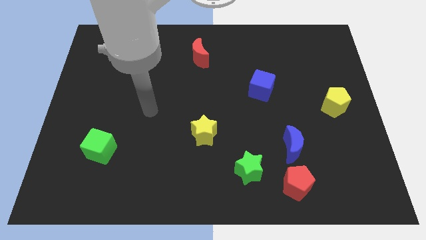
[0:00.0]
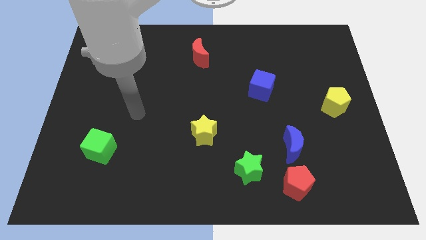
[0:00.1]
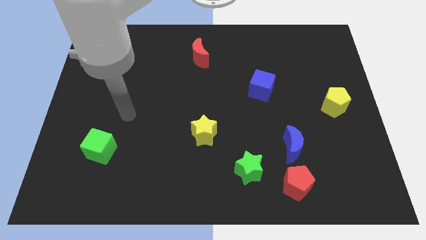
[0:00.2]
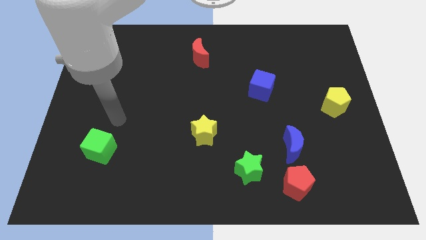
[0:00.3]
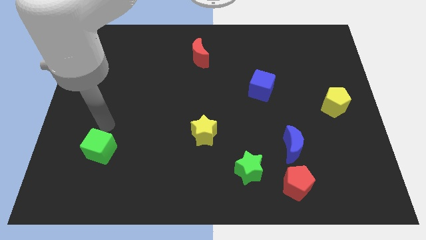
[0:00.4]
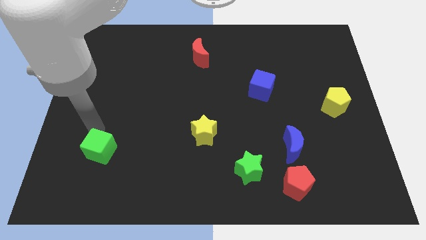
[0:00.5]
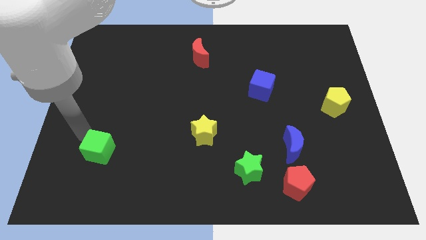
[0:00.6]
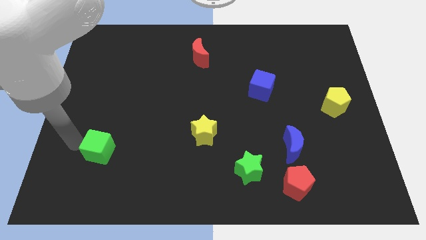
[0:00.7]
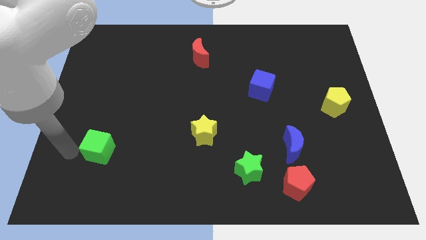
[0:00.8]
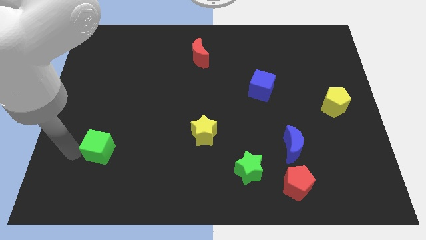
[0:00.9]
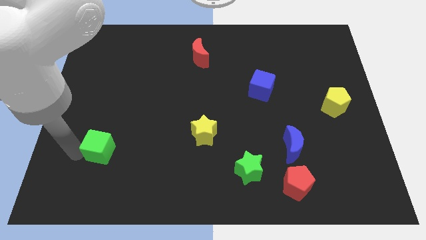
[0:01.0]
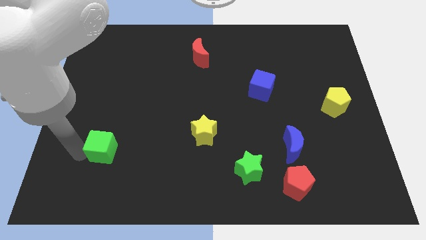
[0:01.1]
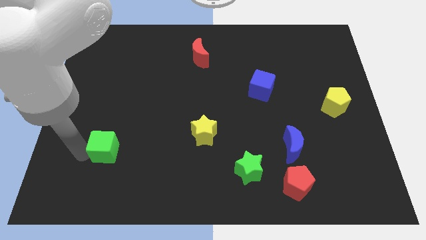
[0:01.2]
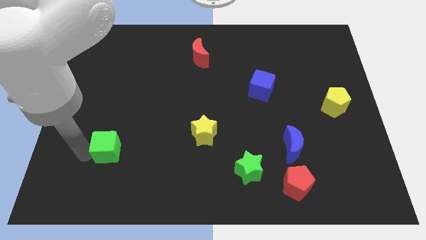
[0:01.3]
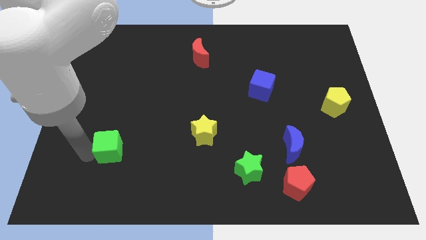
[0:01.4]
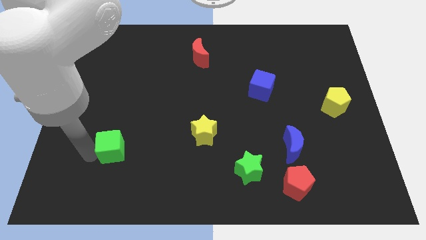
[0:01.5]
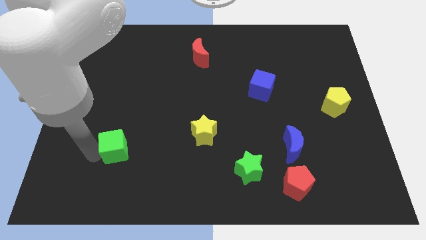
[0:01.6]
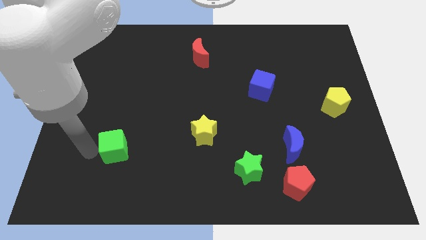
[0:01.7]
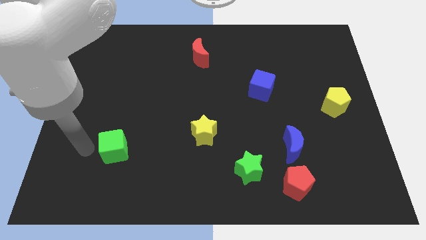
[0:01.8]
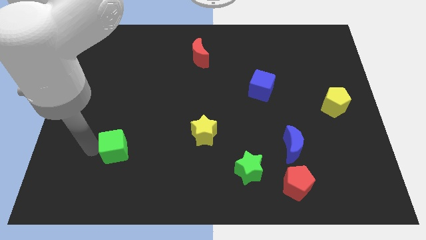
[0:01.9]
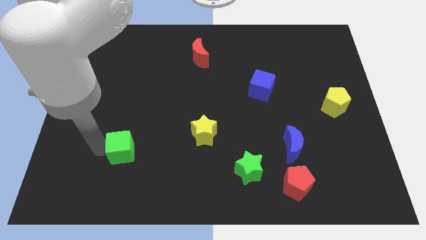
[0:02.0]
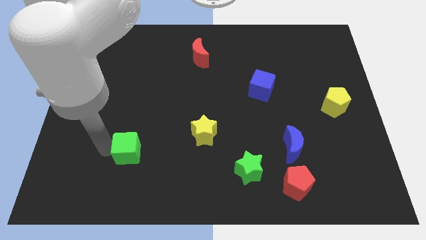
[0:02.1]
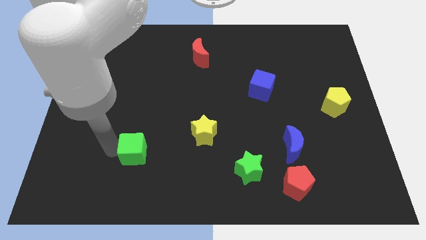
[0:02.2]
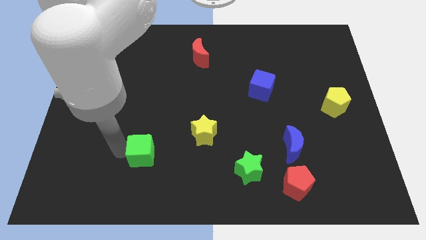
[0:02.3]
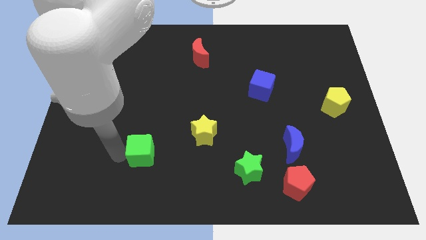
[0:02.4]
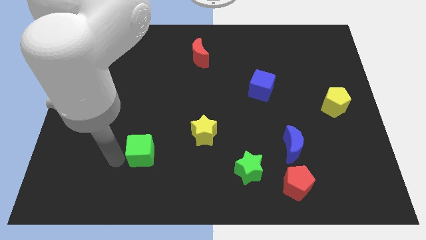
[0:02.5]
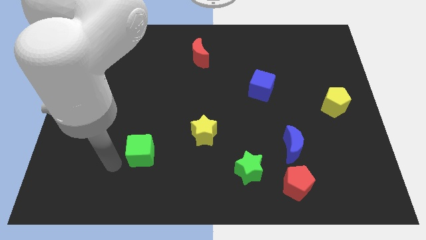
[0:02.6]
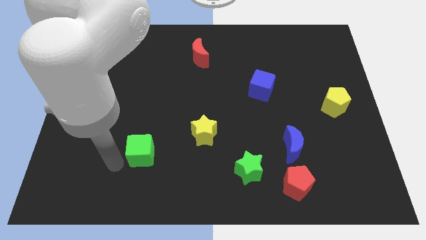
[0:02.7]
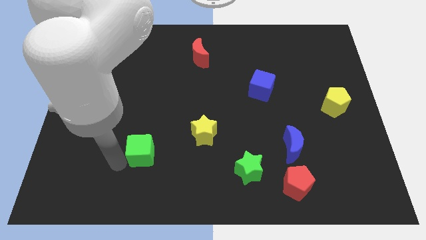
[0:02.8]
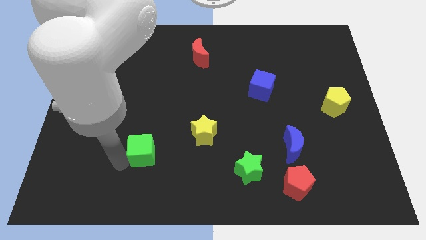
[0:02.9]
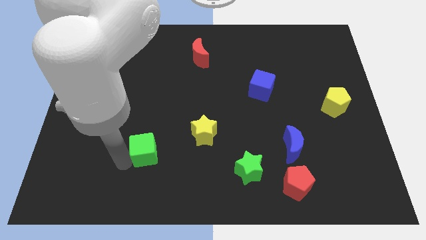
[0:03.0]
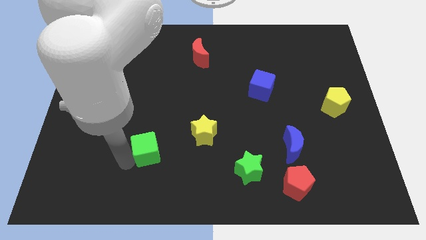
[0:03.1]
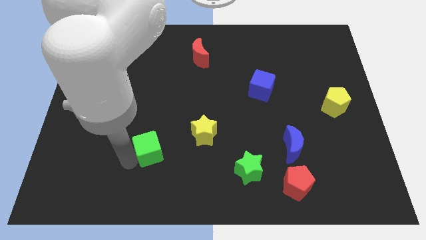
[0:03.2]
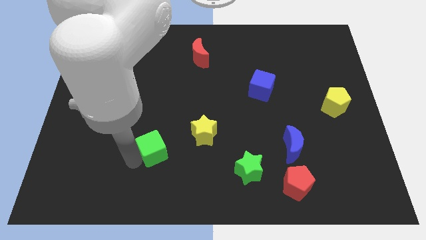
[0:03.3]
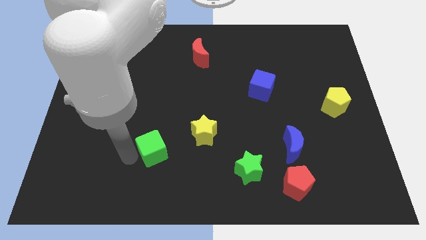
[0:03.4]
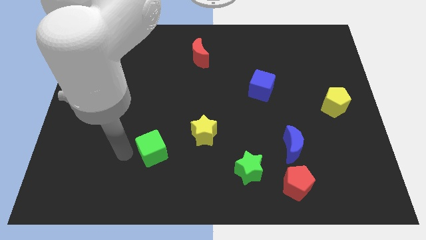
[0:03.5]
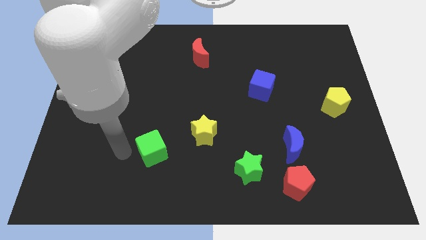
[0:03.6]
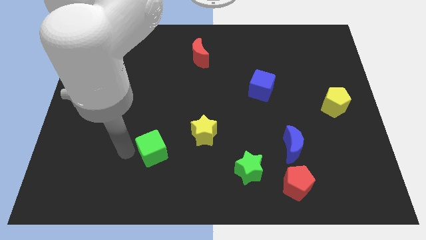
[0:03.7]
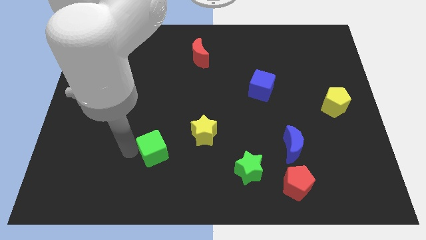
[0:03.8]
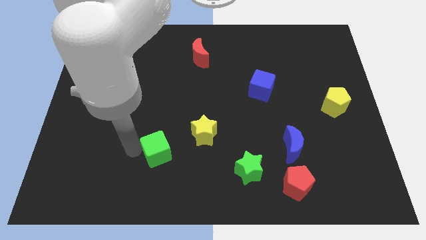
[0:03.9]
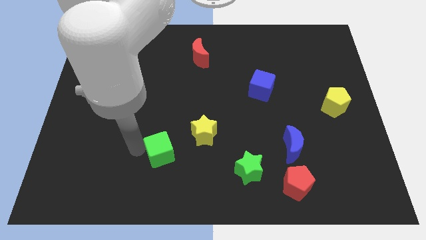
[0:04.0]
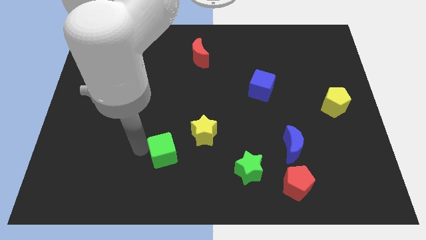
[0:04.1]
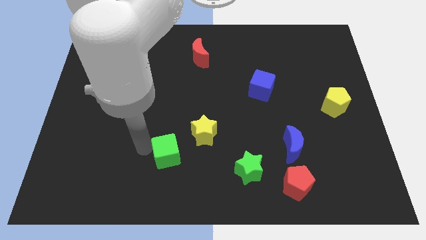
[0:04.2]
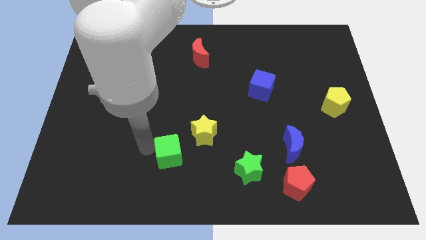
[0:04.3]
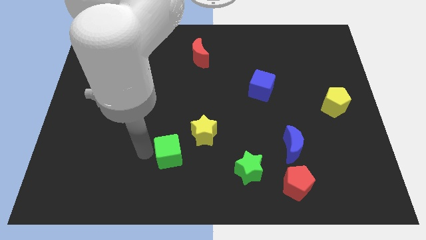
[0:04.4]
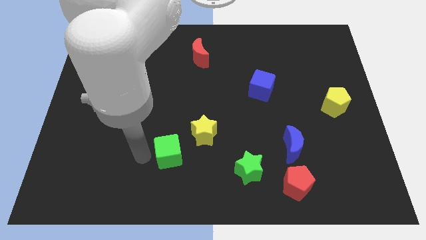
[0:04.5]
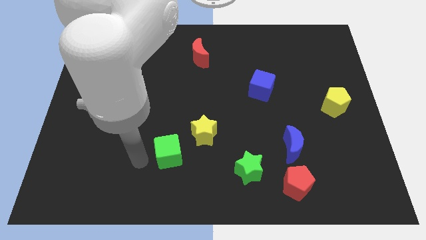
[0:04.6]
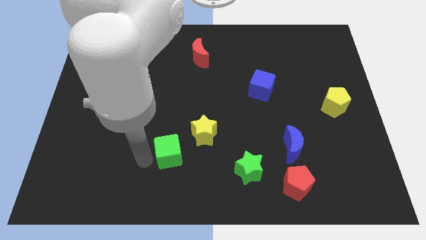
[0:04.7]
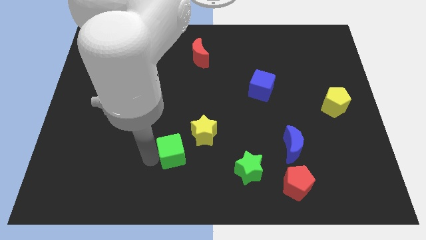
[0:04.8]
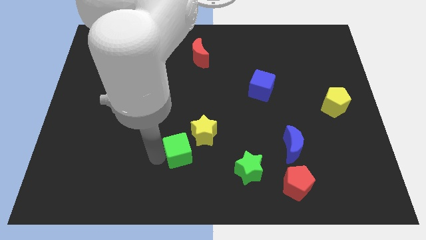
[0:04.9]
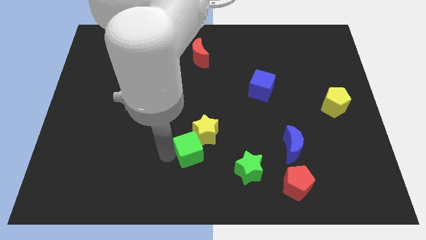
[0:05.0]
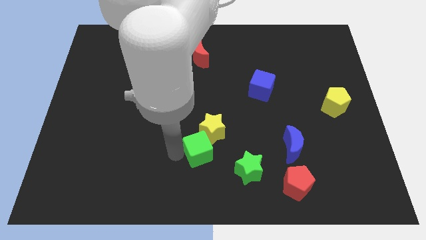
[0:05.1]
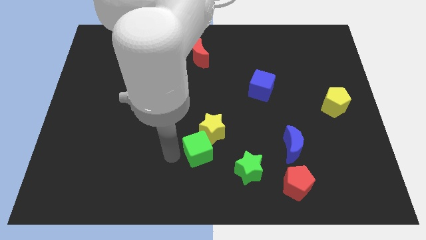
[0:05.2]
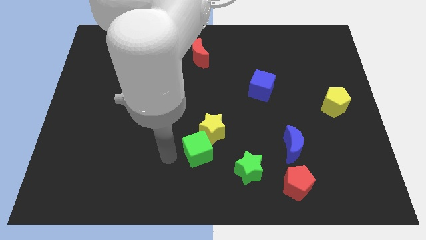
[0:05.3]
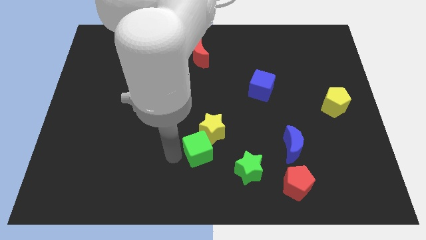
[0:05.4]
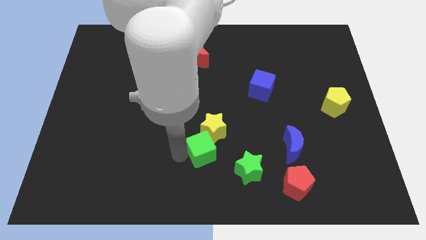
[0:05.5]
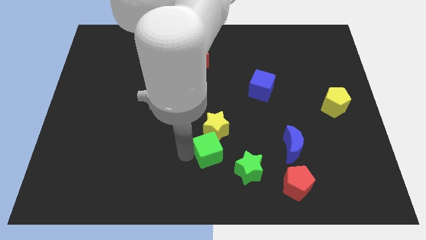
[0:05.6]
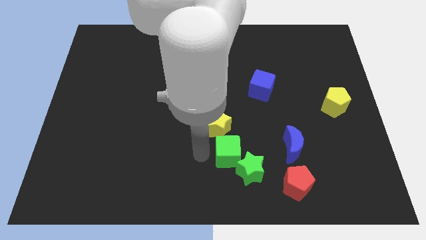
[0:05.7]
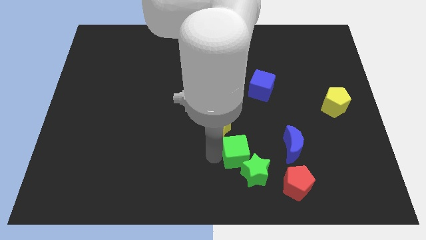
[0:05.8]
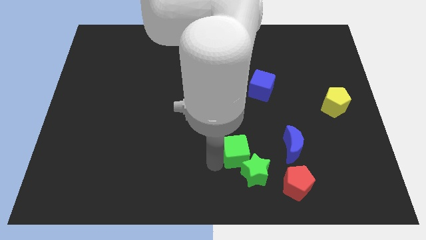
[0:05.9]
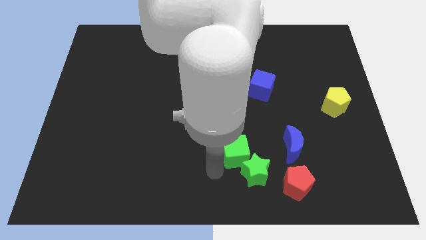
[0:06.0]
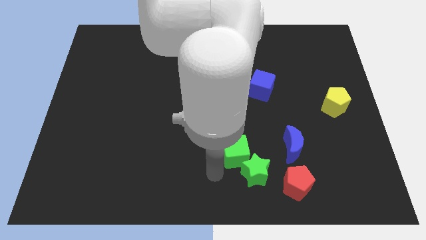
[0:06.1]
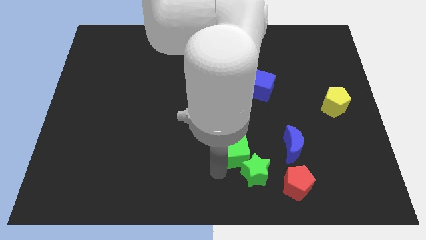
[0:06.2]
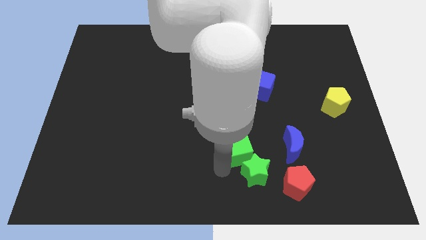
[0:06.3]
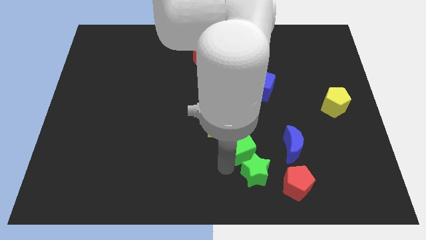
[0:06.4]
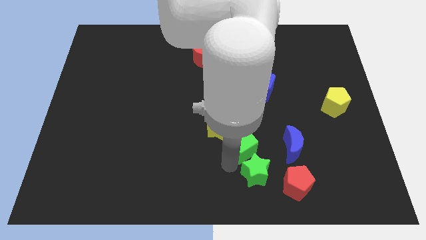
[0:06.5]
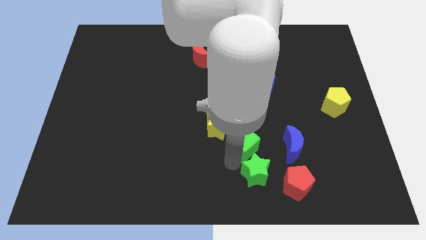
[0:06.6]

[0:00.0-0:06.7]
move the green cube just right of the yellow star

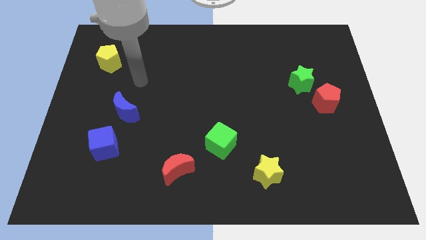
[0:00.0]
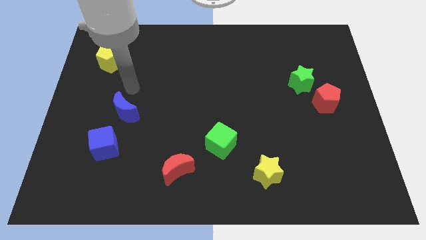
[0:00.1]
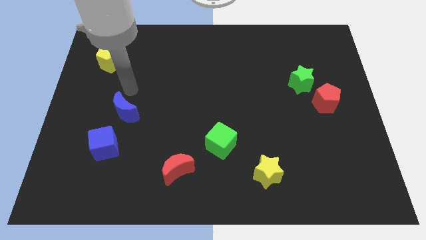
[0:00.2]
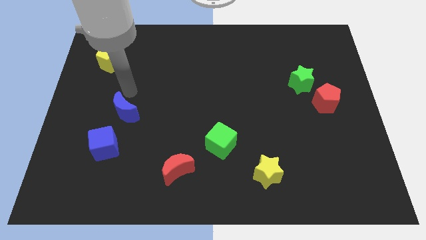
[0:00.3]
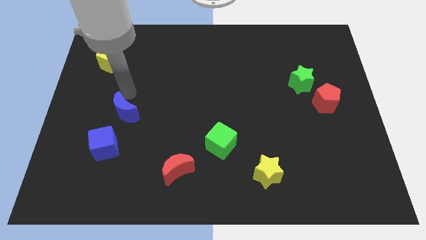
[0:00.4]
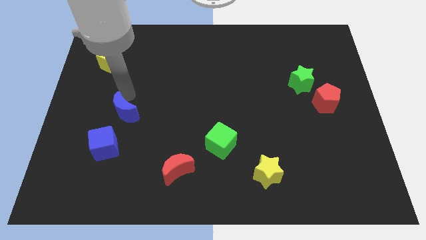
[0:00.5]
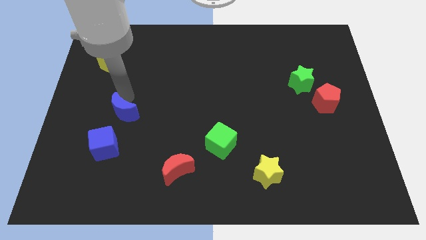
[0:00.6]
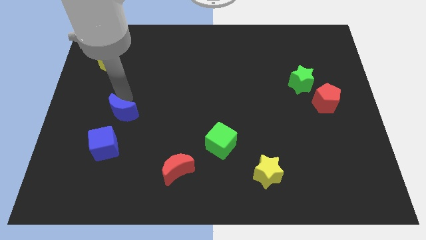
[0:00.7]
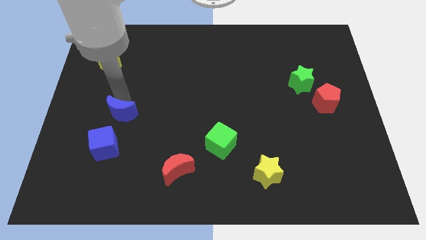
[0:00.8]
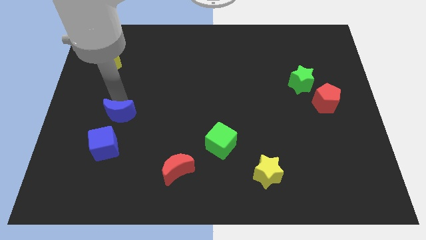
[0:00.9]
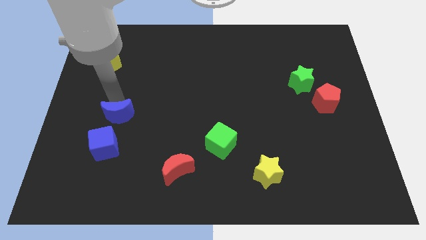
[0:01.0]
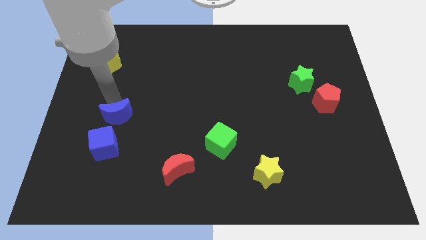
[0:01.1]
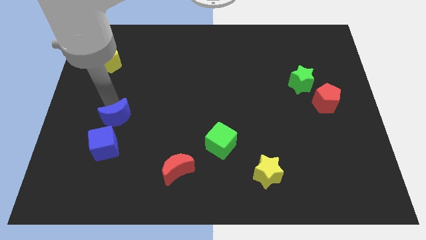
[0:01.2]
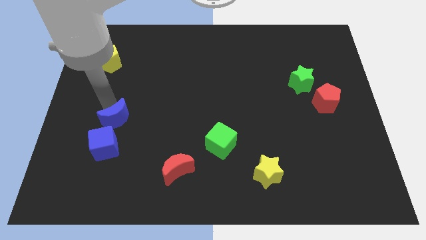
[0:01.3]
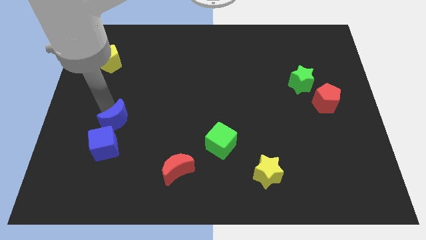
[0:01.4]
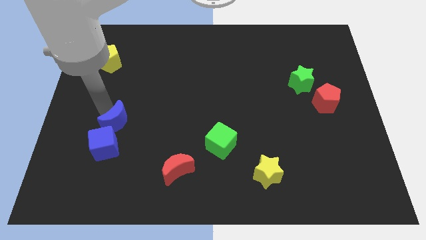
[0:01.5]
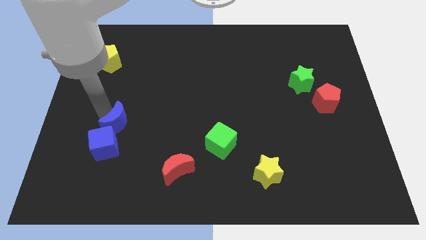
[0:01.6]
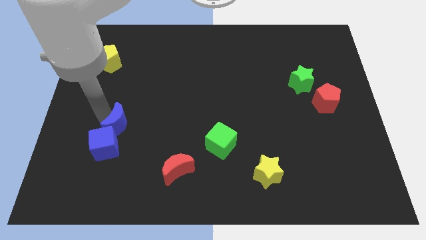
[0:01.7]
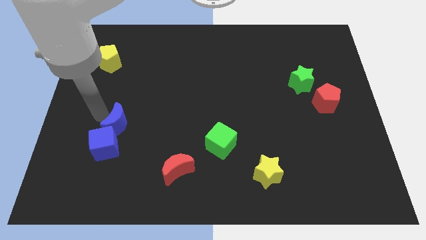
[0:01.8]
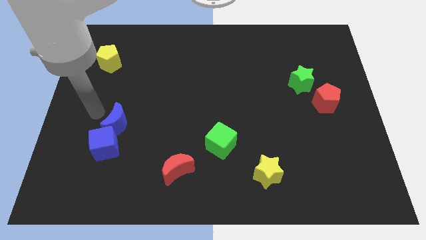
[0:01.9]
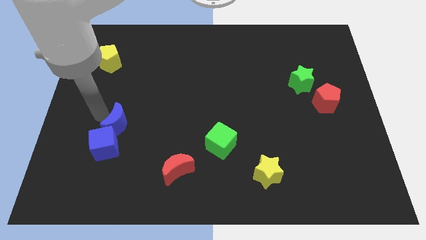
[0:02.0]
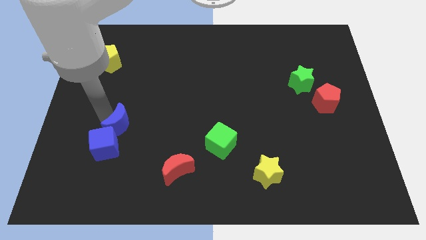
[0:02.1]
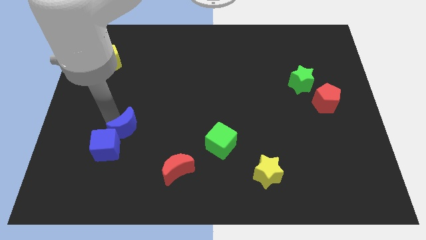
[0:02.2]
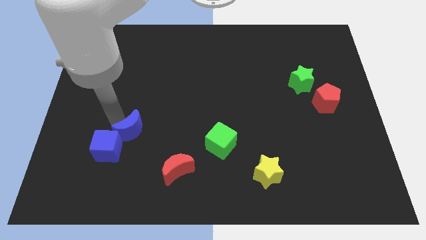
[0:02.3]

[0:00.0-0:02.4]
put the blue moon just right of the blue cube
